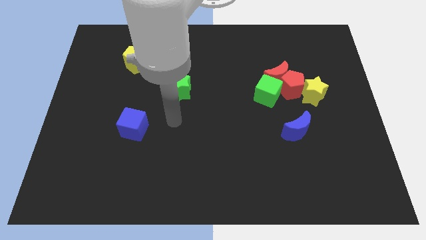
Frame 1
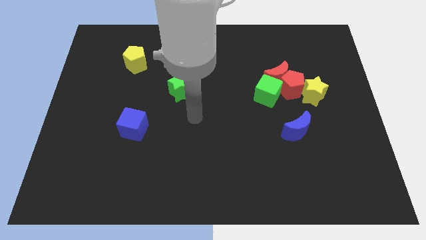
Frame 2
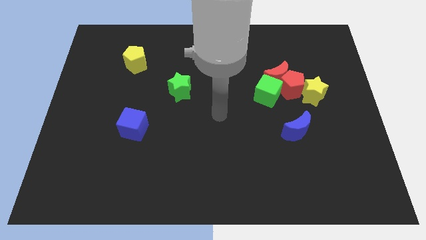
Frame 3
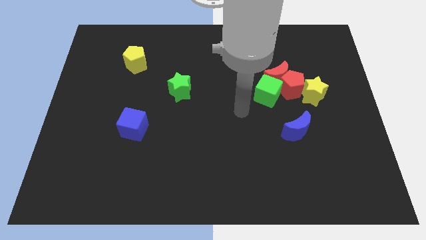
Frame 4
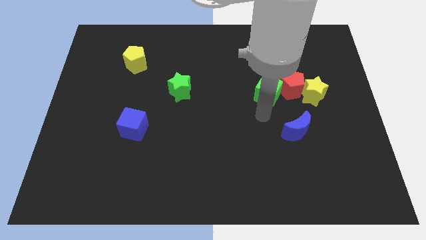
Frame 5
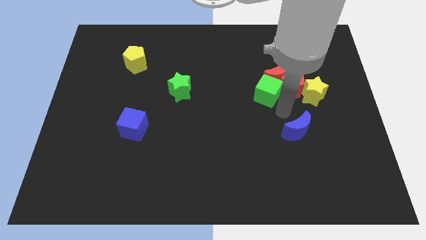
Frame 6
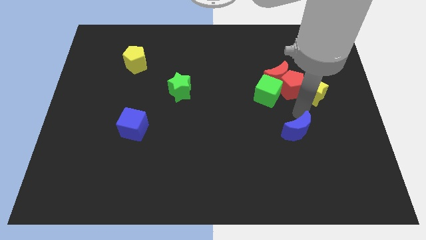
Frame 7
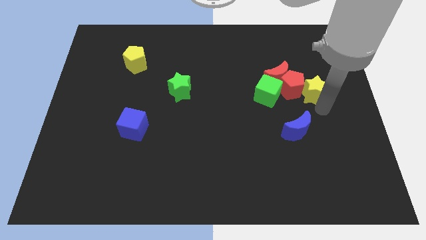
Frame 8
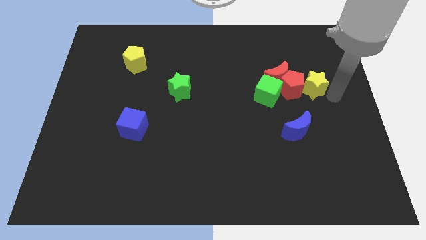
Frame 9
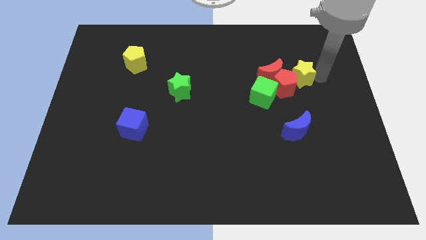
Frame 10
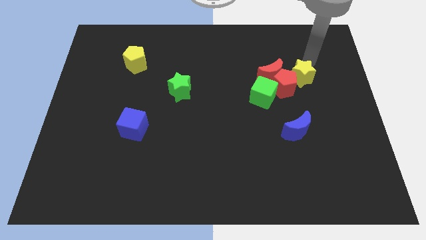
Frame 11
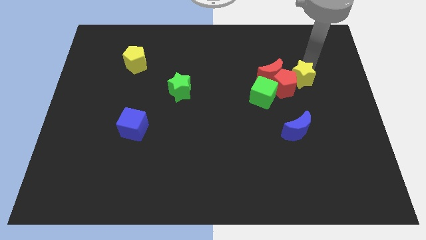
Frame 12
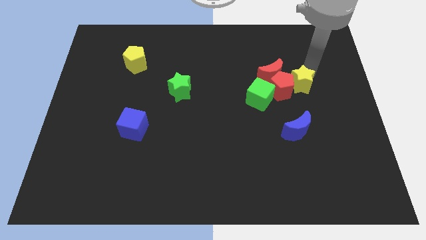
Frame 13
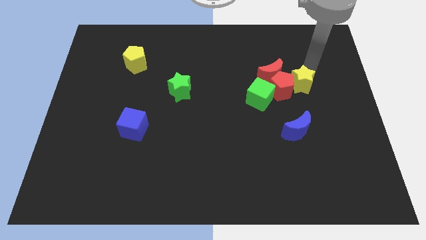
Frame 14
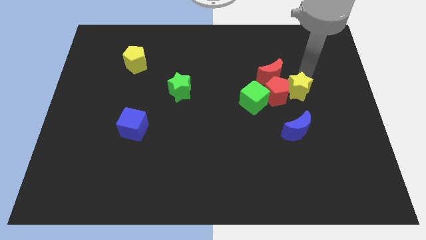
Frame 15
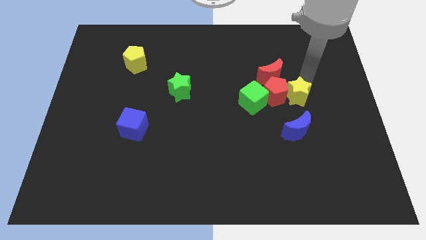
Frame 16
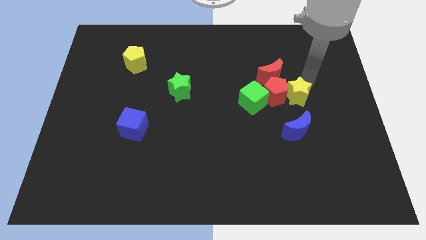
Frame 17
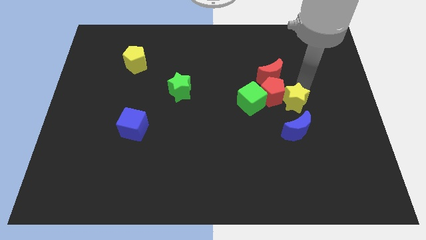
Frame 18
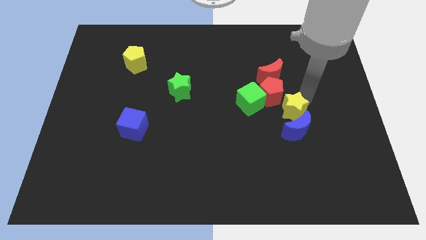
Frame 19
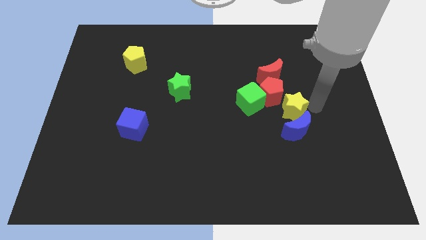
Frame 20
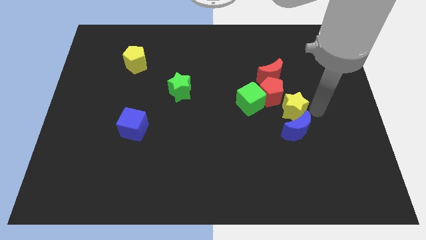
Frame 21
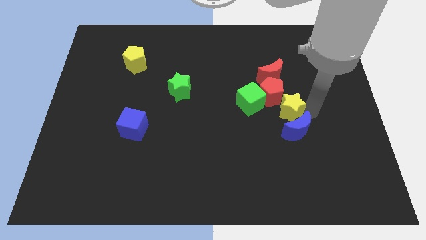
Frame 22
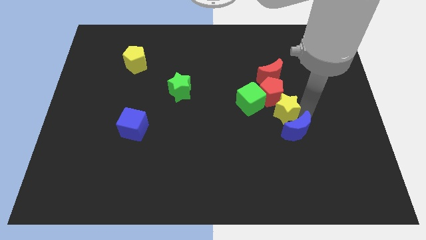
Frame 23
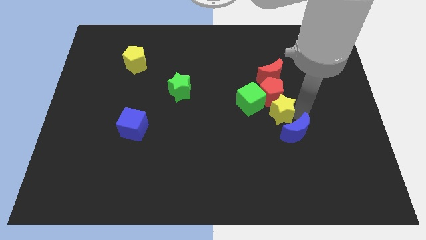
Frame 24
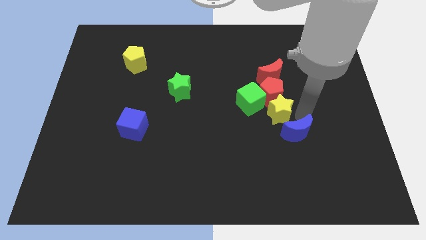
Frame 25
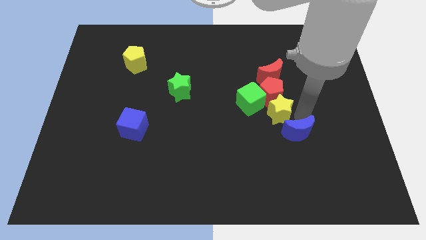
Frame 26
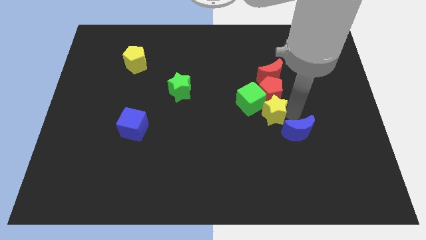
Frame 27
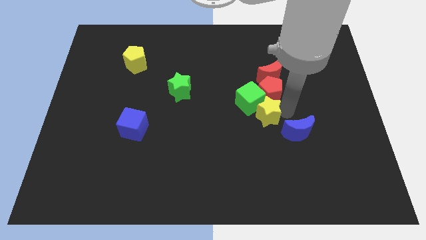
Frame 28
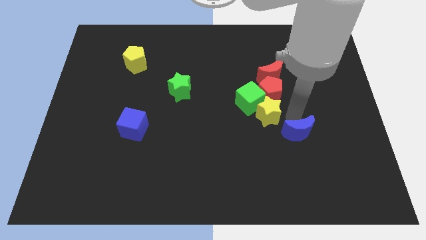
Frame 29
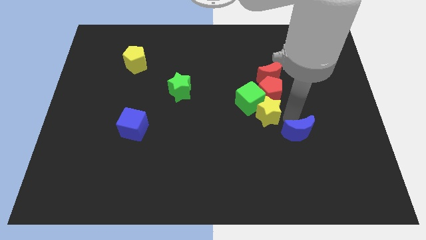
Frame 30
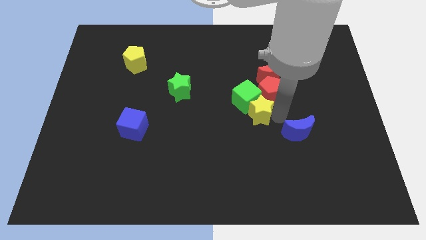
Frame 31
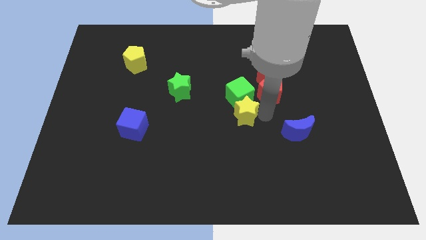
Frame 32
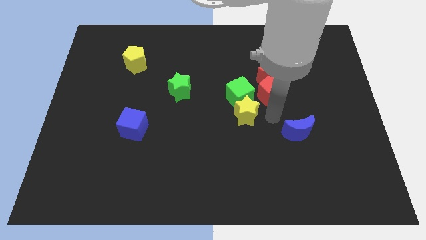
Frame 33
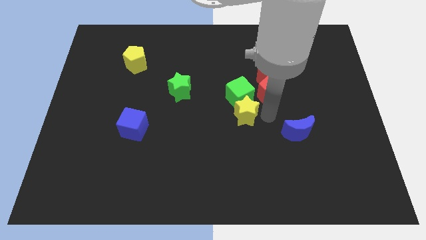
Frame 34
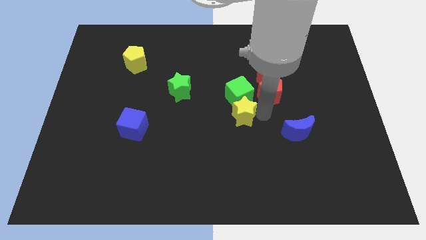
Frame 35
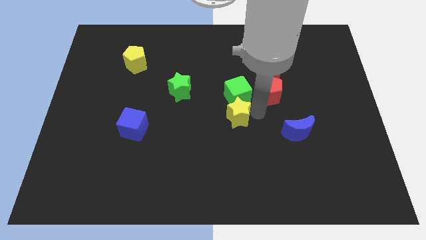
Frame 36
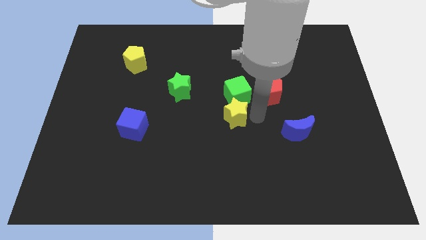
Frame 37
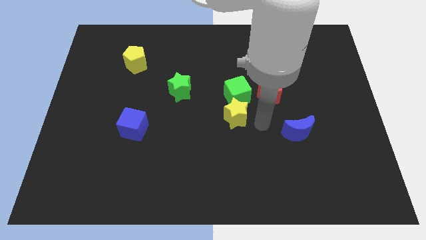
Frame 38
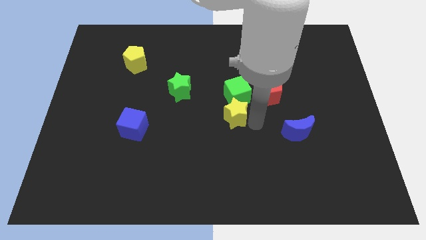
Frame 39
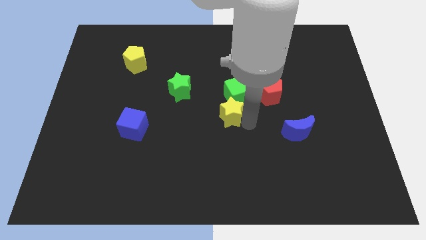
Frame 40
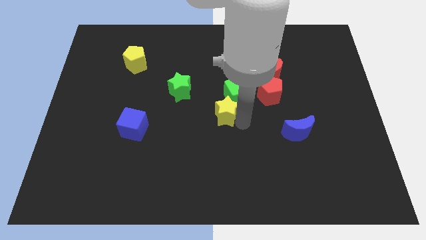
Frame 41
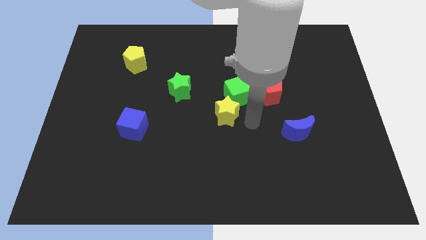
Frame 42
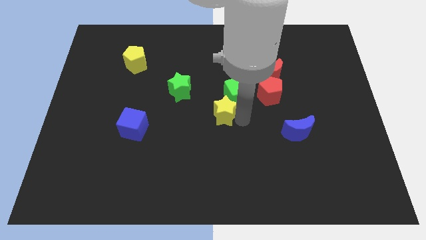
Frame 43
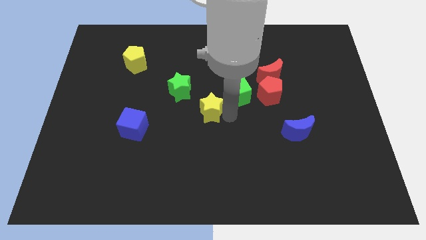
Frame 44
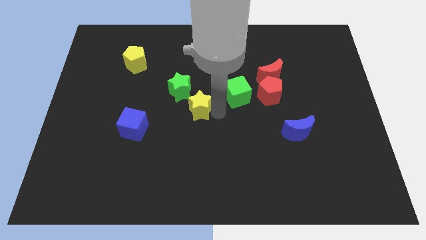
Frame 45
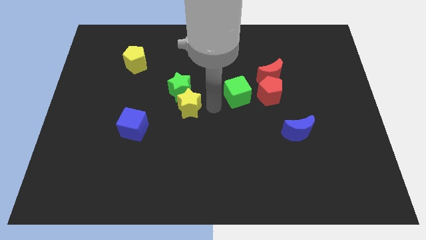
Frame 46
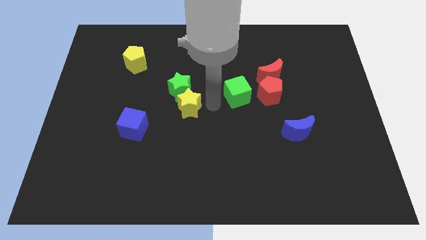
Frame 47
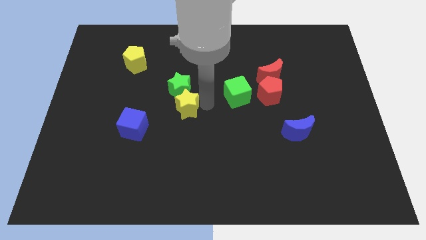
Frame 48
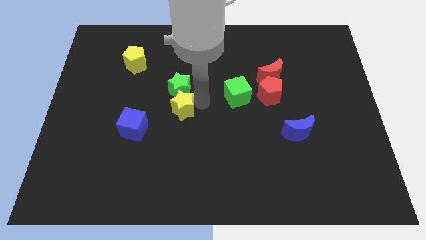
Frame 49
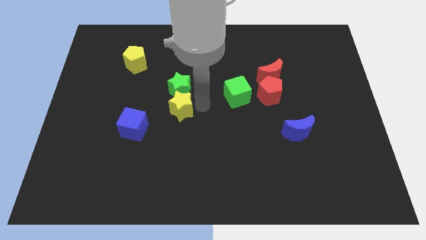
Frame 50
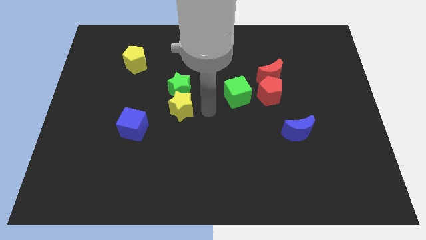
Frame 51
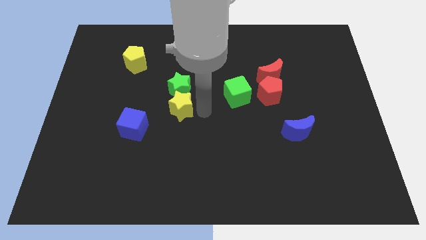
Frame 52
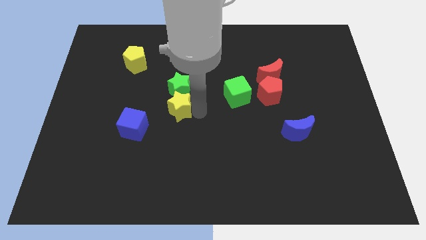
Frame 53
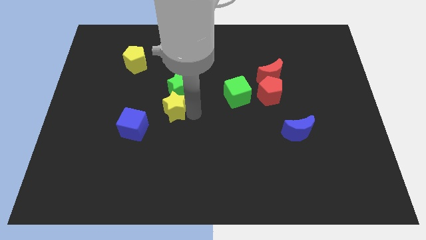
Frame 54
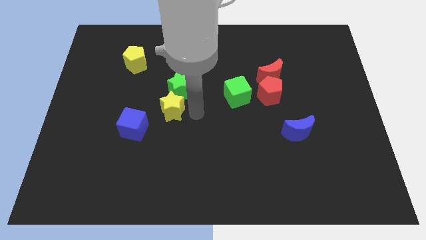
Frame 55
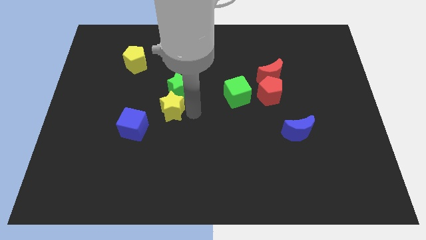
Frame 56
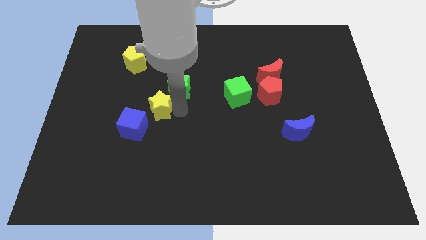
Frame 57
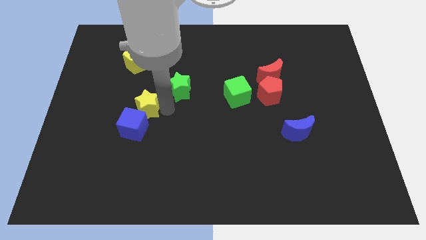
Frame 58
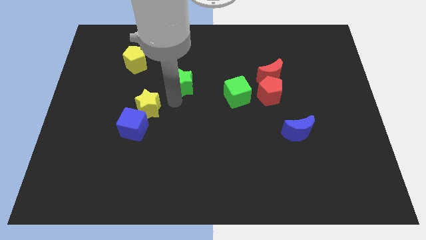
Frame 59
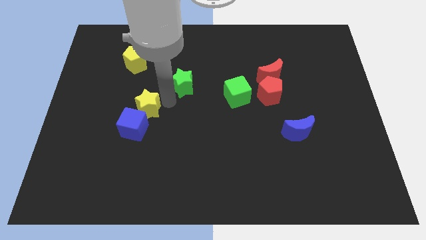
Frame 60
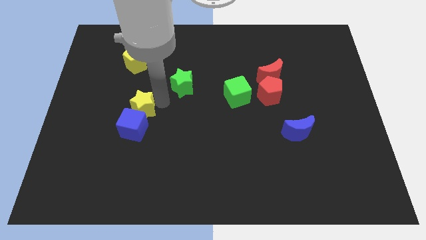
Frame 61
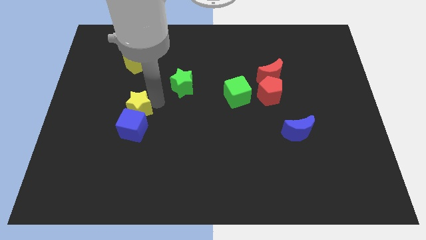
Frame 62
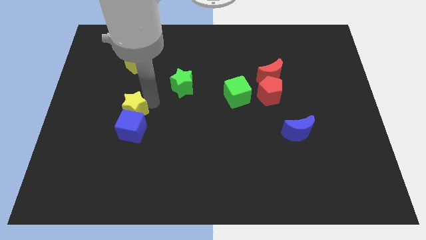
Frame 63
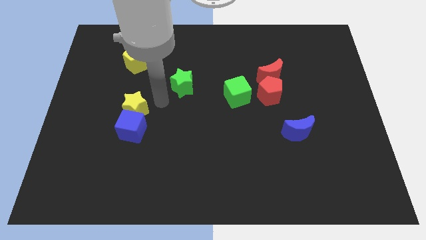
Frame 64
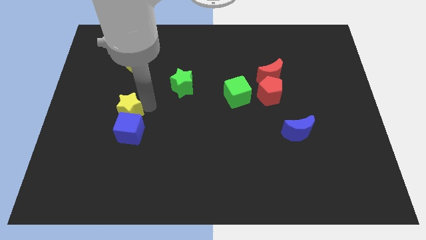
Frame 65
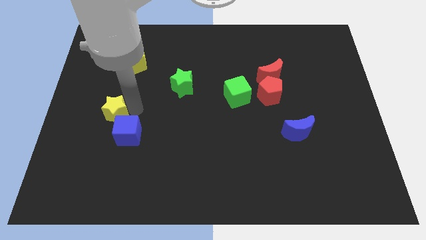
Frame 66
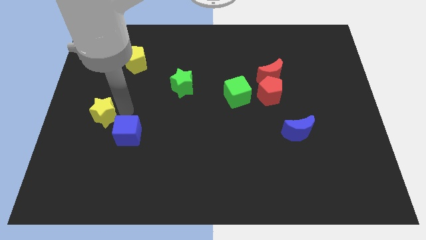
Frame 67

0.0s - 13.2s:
slide the yellow star to the left side of the blue cube

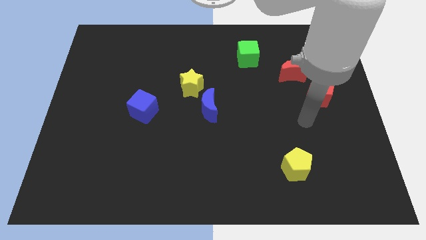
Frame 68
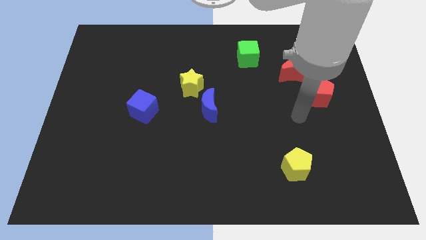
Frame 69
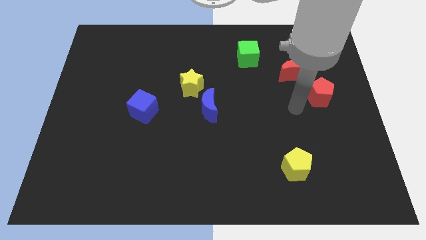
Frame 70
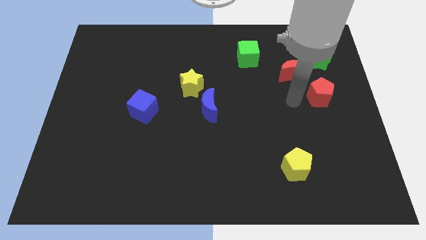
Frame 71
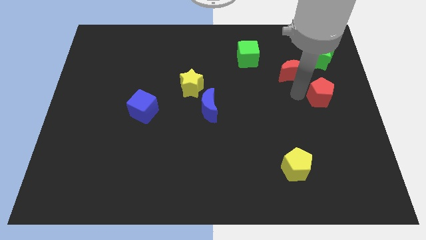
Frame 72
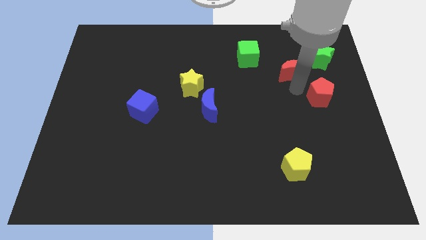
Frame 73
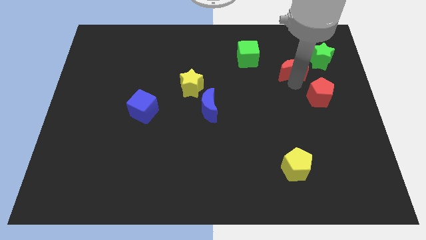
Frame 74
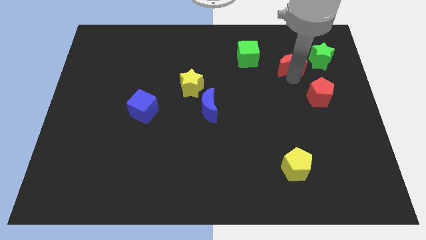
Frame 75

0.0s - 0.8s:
slide the red moon just right of the green cube
